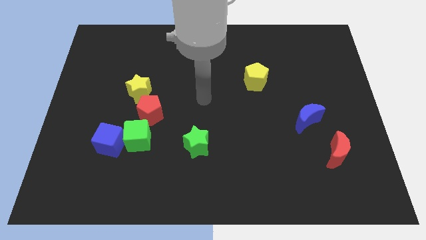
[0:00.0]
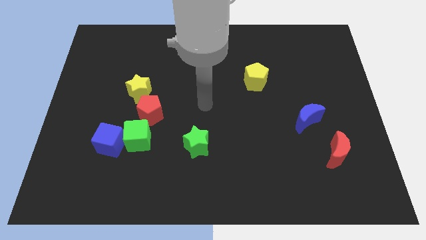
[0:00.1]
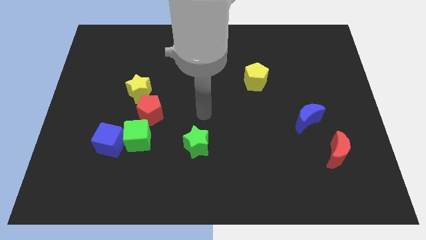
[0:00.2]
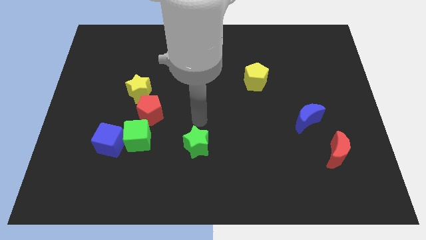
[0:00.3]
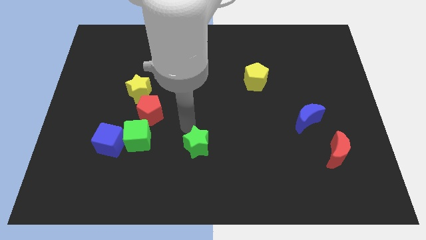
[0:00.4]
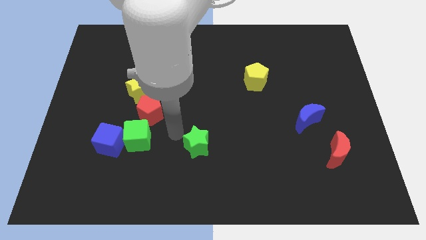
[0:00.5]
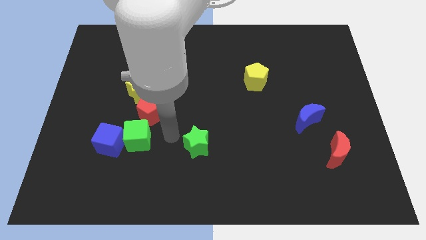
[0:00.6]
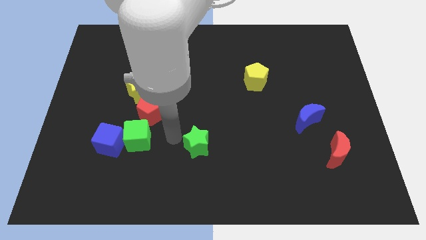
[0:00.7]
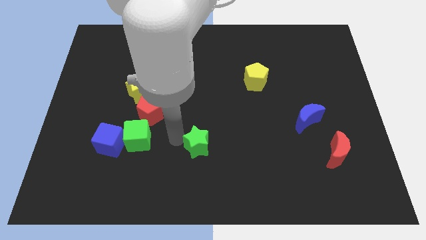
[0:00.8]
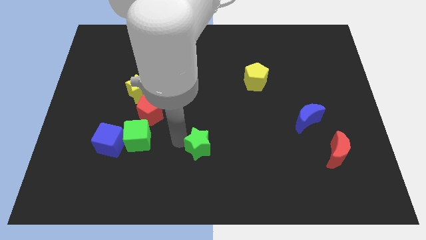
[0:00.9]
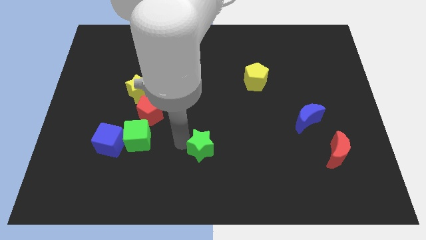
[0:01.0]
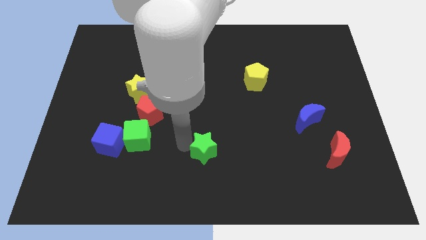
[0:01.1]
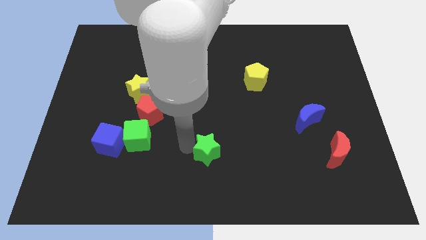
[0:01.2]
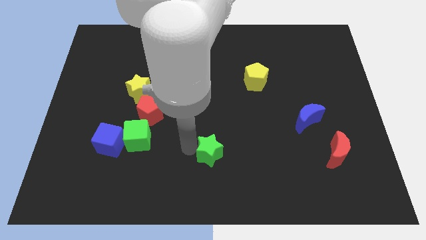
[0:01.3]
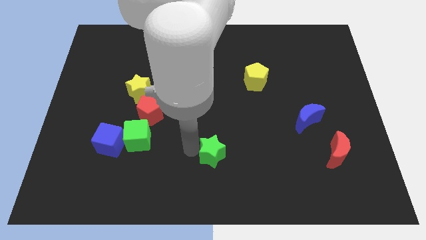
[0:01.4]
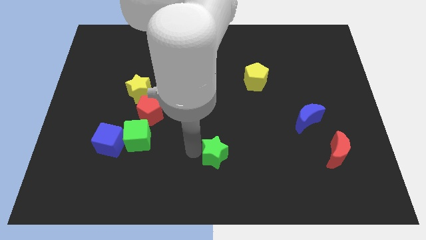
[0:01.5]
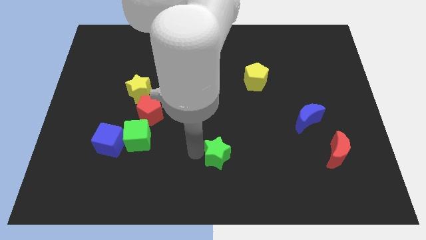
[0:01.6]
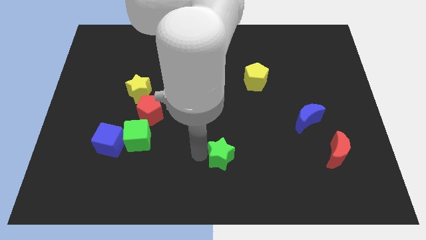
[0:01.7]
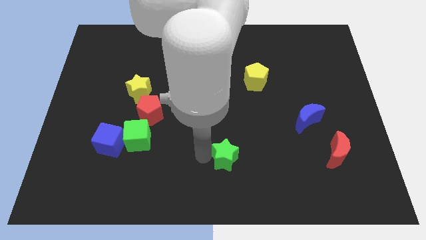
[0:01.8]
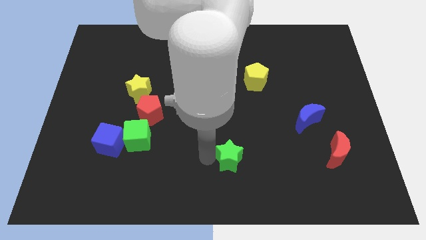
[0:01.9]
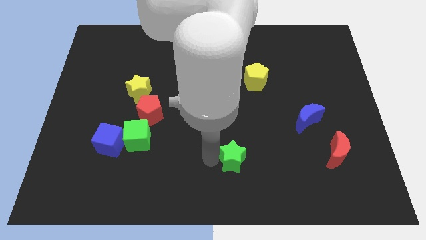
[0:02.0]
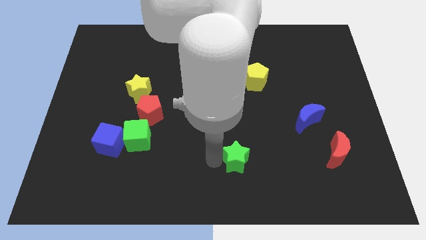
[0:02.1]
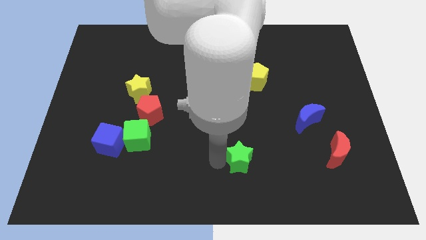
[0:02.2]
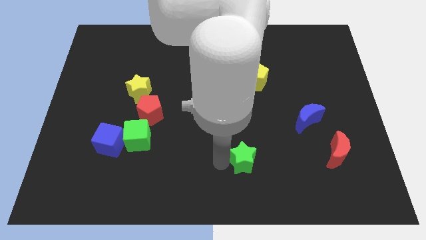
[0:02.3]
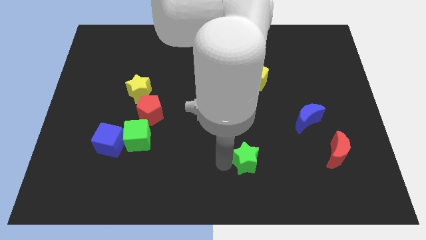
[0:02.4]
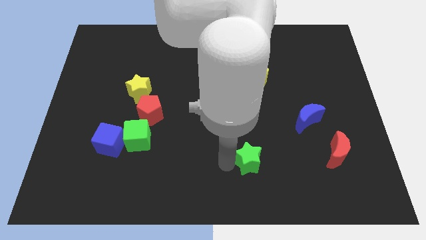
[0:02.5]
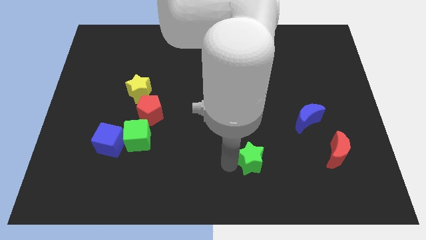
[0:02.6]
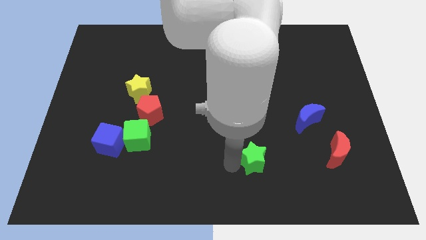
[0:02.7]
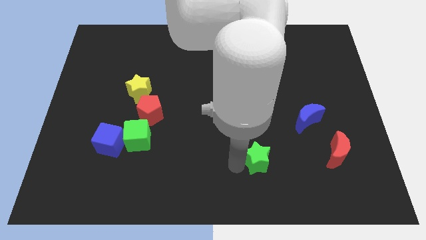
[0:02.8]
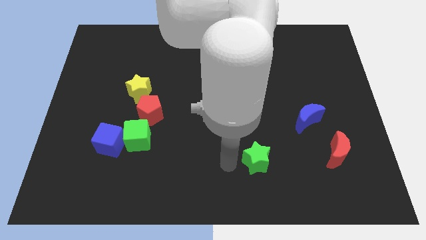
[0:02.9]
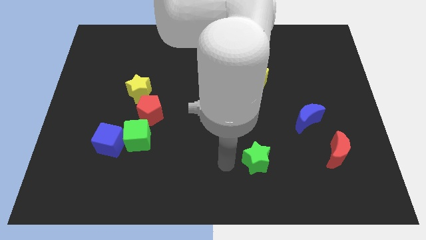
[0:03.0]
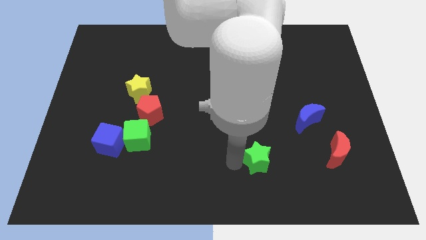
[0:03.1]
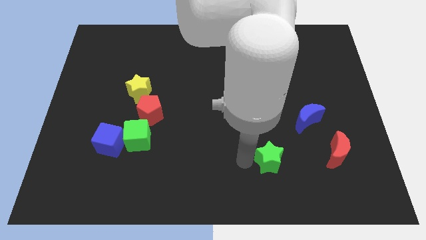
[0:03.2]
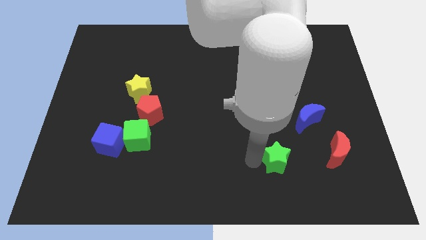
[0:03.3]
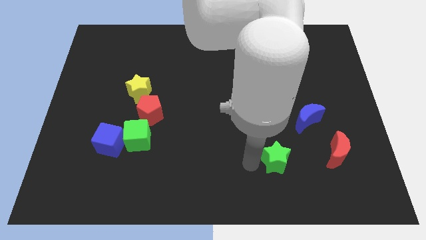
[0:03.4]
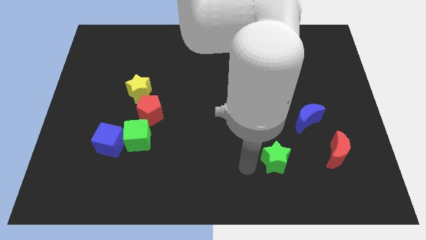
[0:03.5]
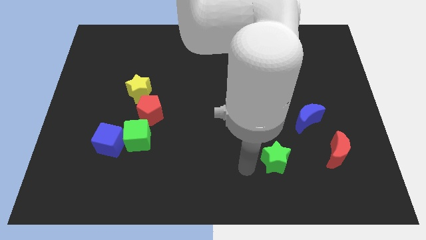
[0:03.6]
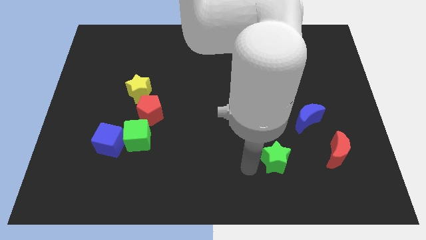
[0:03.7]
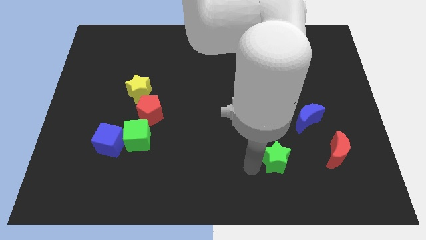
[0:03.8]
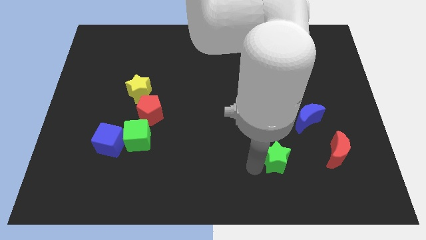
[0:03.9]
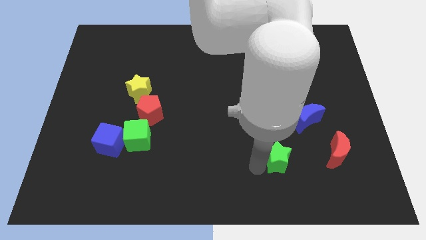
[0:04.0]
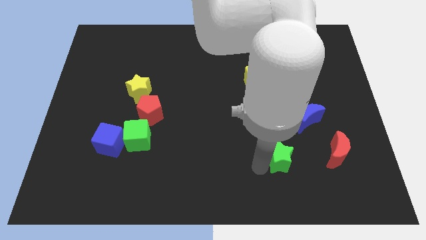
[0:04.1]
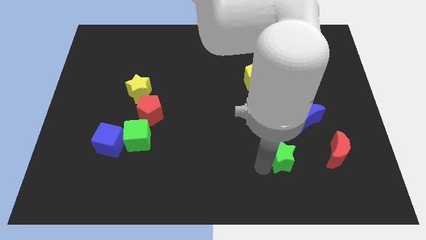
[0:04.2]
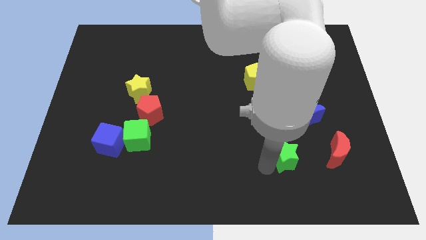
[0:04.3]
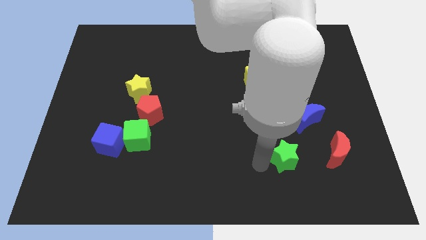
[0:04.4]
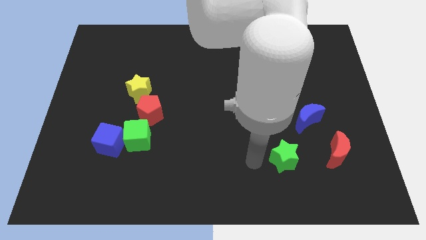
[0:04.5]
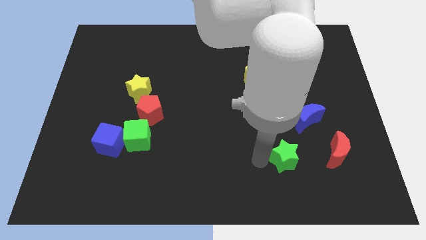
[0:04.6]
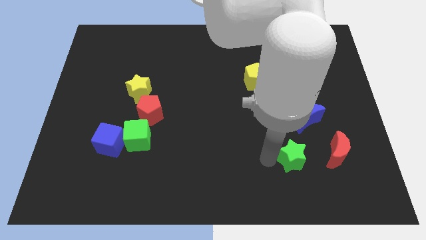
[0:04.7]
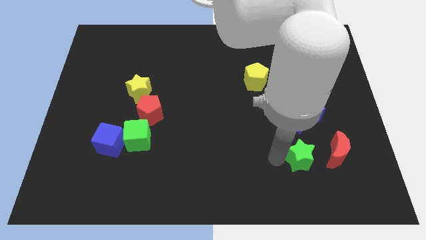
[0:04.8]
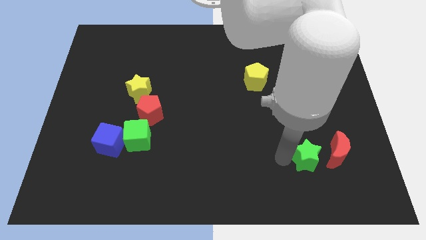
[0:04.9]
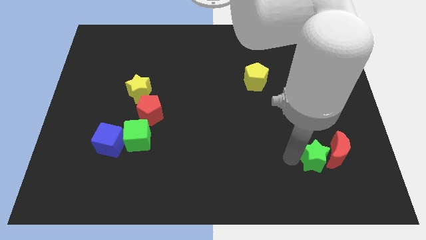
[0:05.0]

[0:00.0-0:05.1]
slide the green star to the red moon

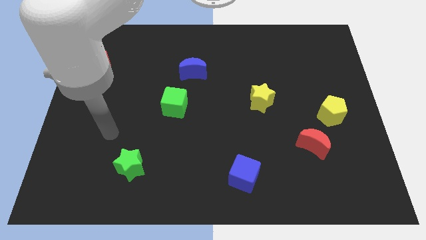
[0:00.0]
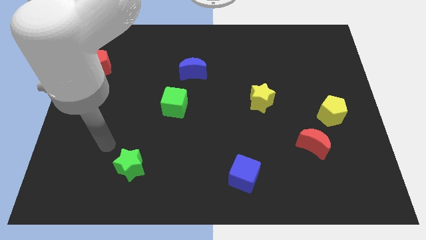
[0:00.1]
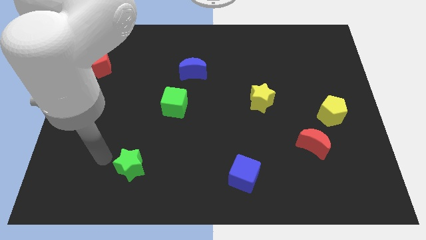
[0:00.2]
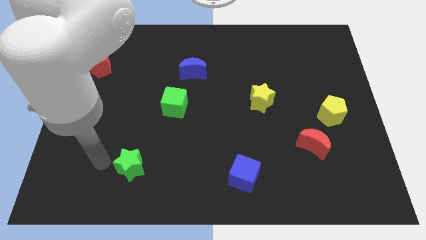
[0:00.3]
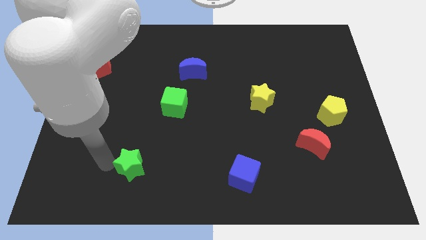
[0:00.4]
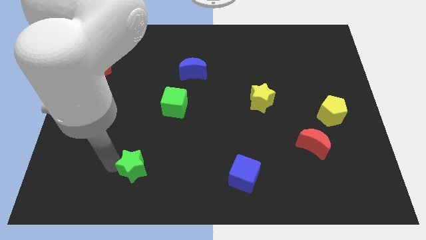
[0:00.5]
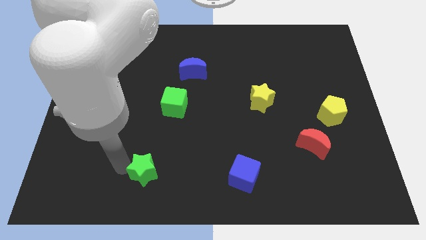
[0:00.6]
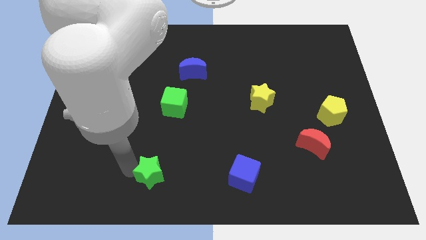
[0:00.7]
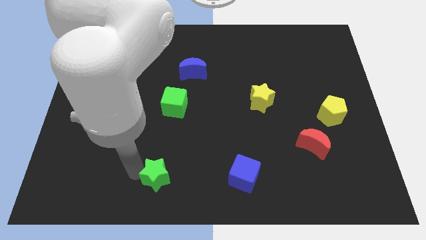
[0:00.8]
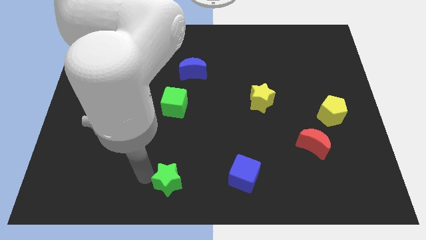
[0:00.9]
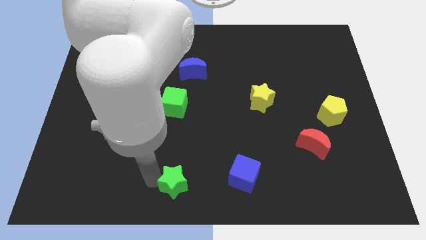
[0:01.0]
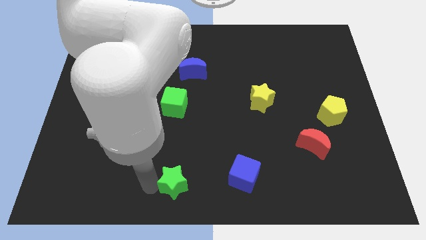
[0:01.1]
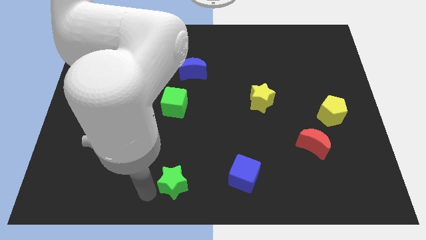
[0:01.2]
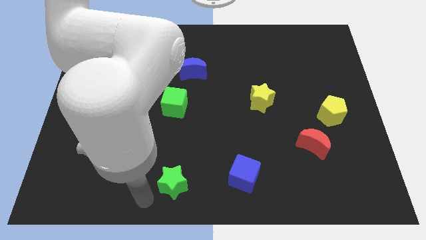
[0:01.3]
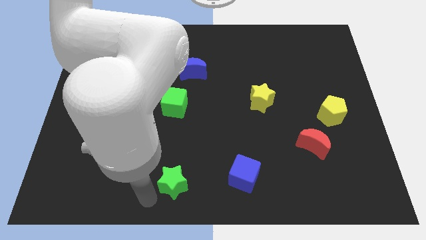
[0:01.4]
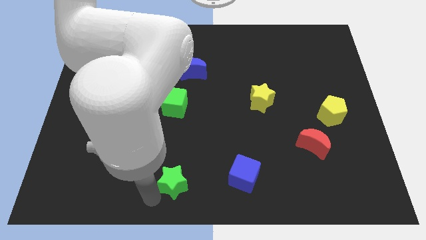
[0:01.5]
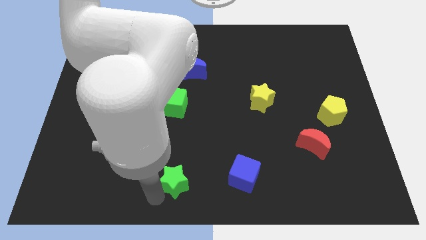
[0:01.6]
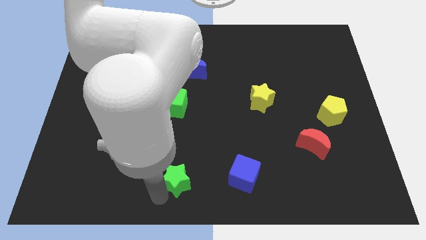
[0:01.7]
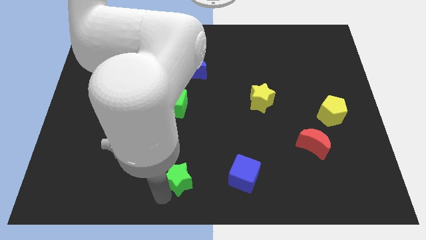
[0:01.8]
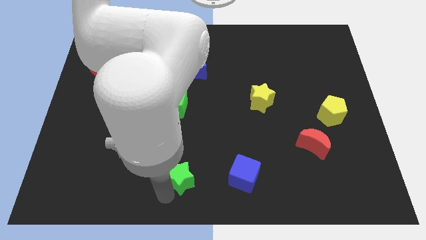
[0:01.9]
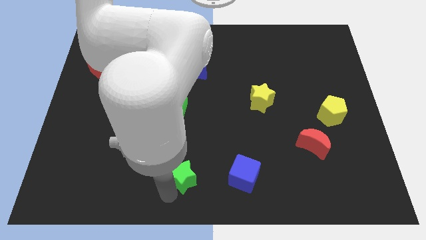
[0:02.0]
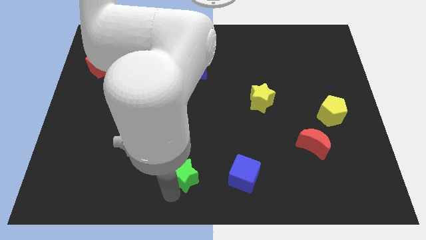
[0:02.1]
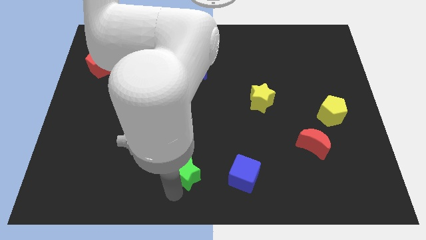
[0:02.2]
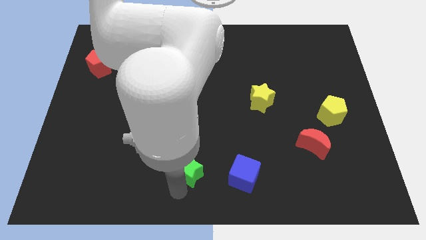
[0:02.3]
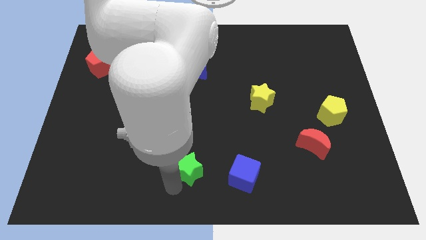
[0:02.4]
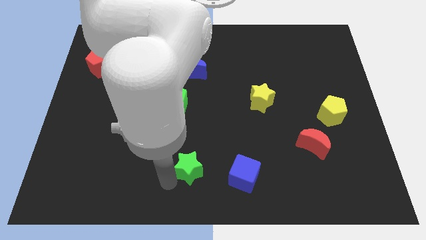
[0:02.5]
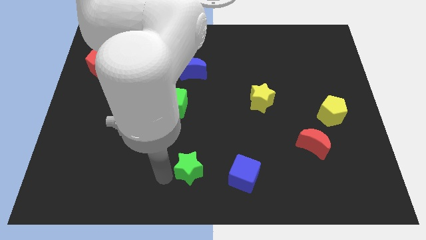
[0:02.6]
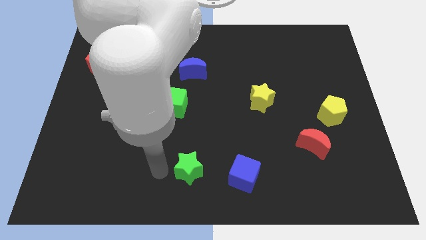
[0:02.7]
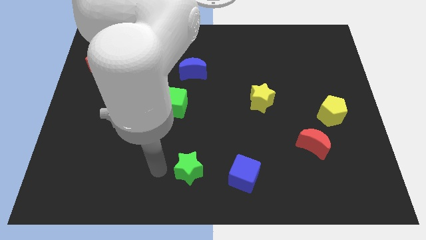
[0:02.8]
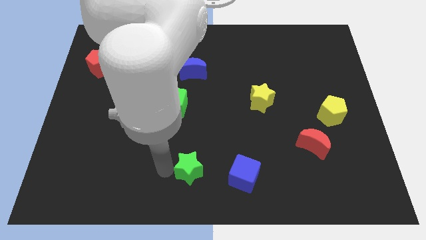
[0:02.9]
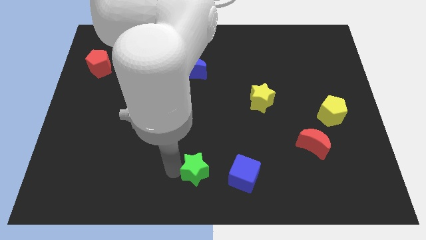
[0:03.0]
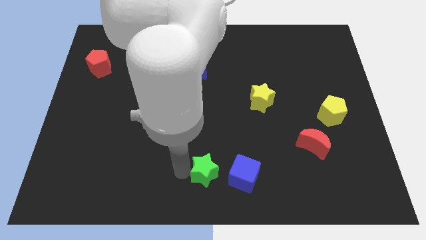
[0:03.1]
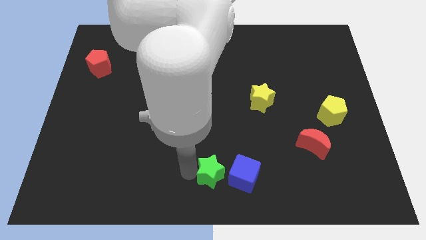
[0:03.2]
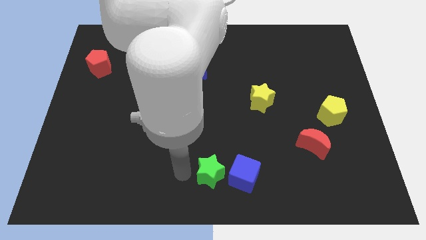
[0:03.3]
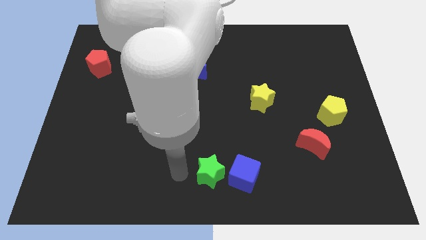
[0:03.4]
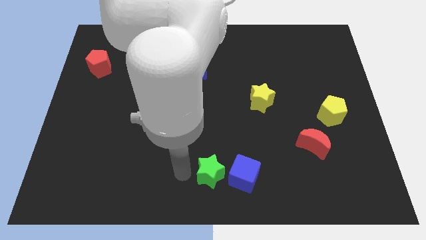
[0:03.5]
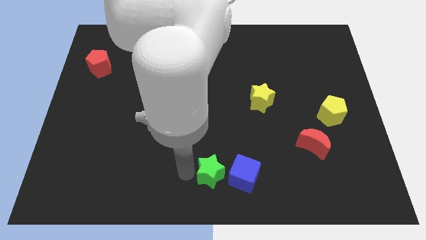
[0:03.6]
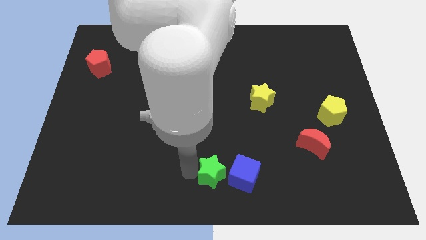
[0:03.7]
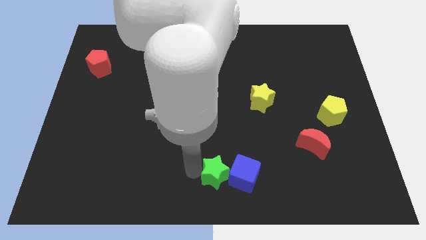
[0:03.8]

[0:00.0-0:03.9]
slide the green star next to the blue cube
